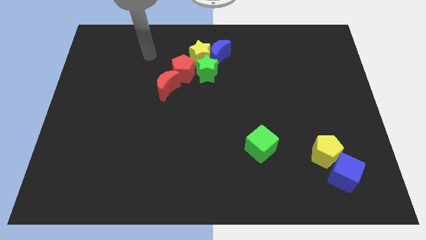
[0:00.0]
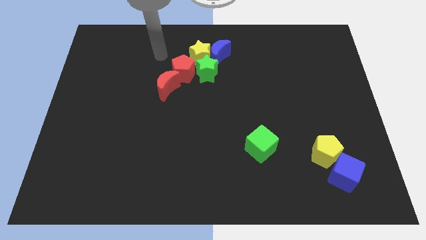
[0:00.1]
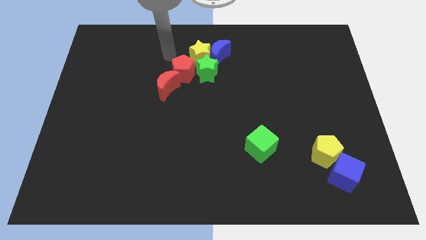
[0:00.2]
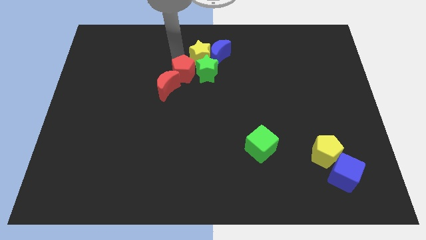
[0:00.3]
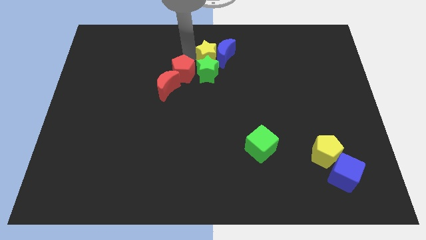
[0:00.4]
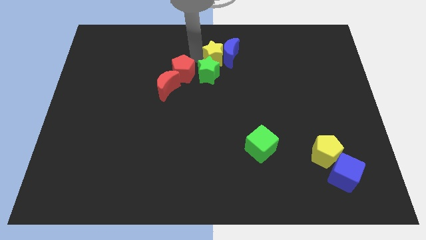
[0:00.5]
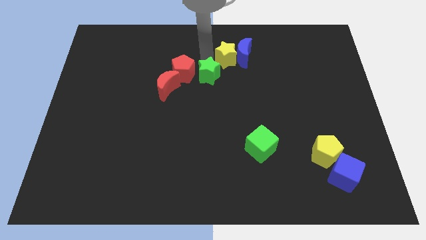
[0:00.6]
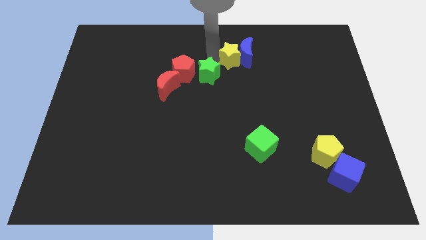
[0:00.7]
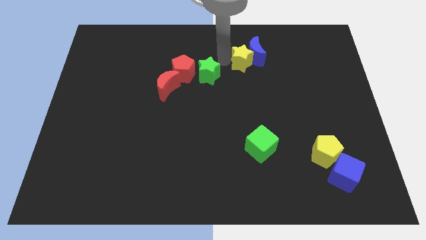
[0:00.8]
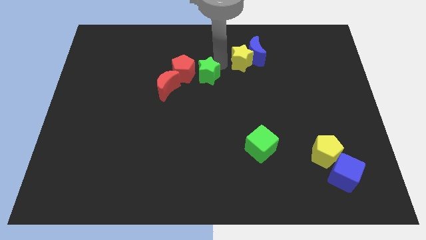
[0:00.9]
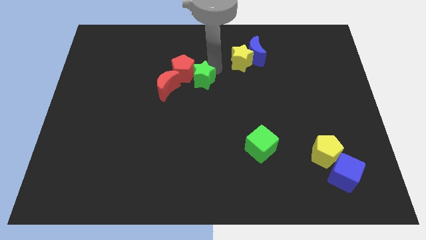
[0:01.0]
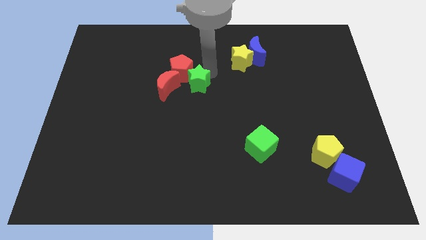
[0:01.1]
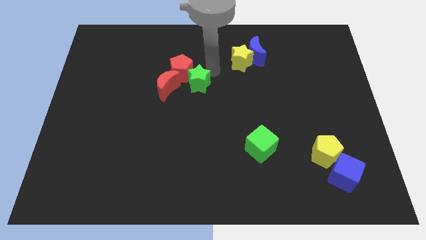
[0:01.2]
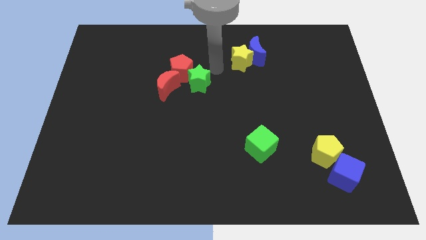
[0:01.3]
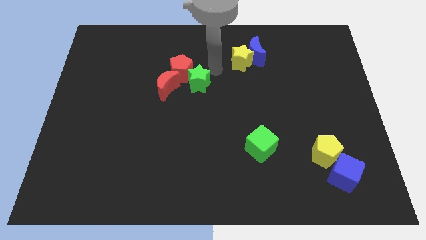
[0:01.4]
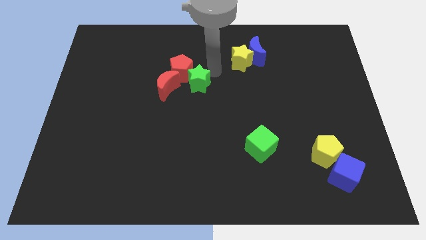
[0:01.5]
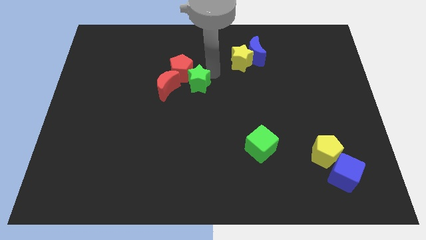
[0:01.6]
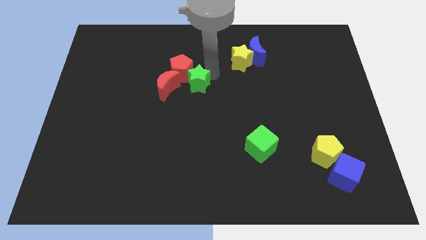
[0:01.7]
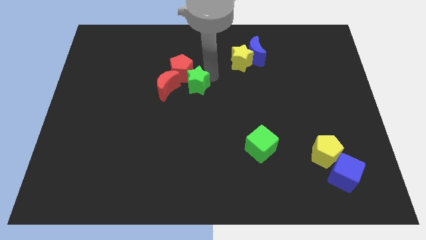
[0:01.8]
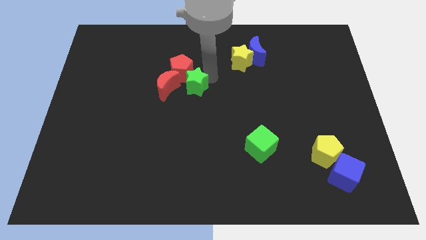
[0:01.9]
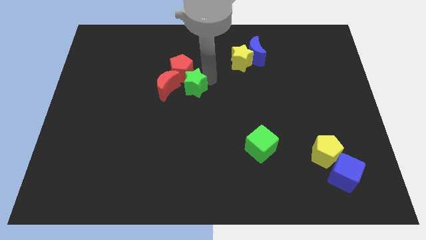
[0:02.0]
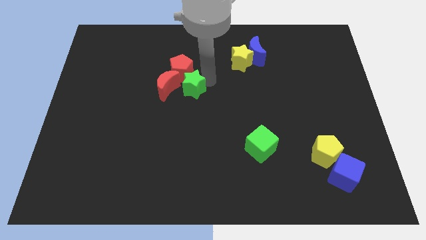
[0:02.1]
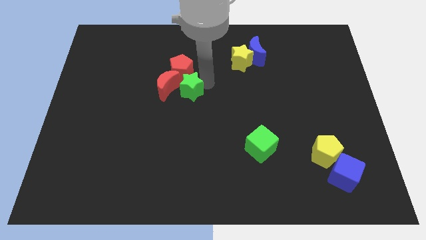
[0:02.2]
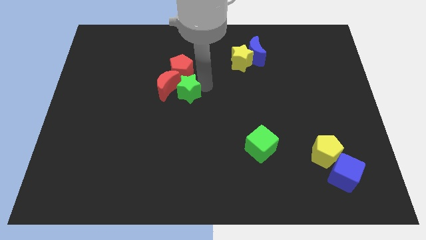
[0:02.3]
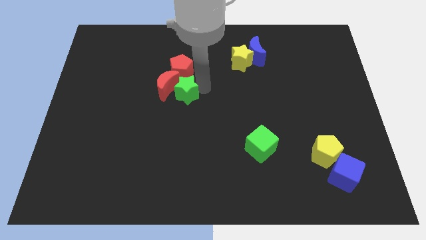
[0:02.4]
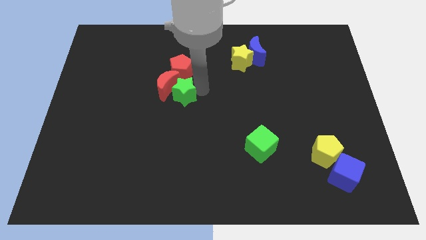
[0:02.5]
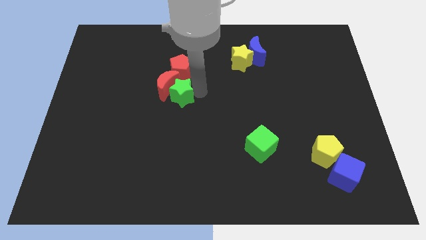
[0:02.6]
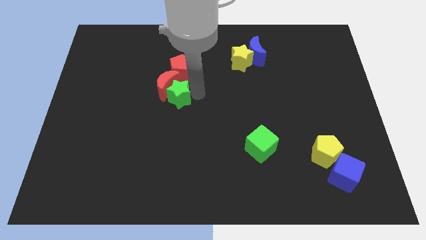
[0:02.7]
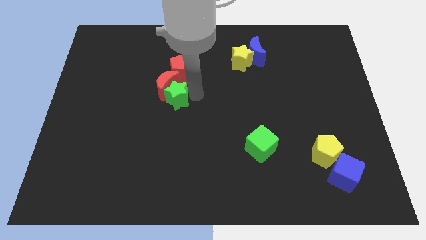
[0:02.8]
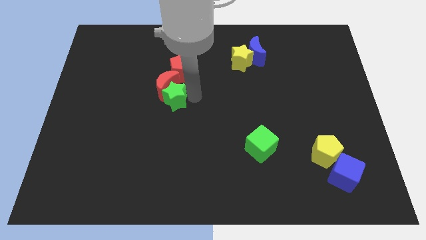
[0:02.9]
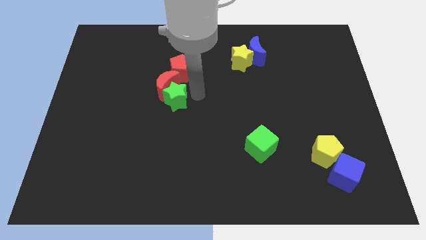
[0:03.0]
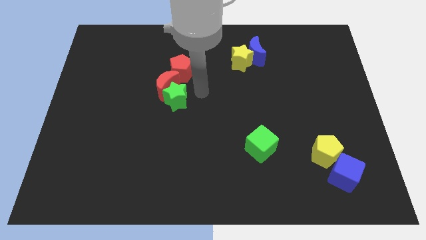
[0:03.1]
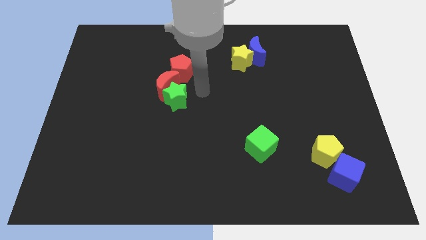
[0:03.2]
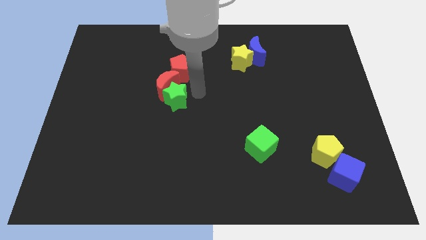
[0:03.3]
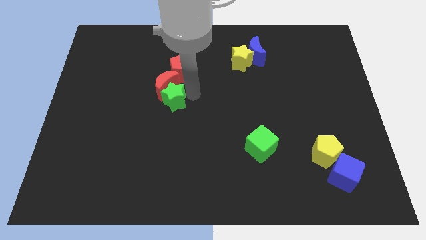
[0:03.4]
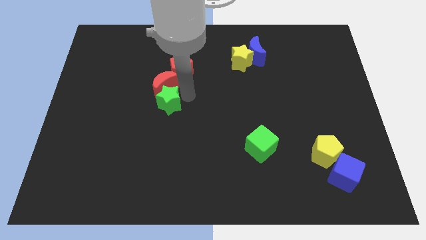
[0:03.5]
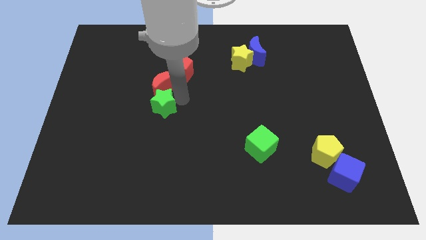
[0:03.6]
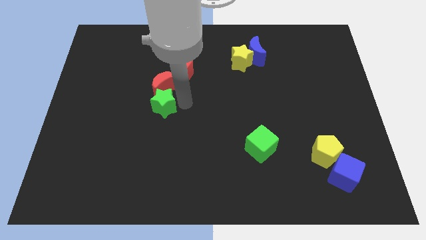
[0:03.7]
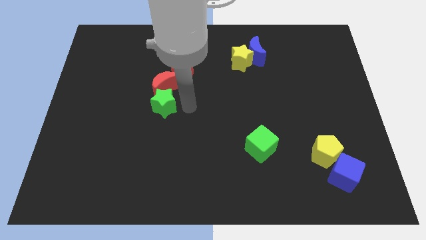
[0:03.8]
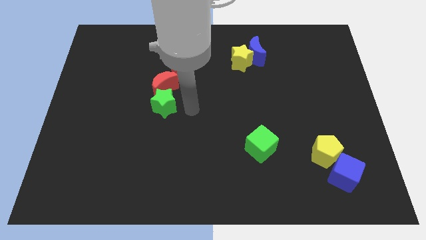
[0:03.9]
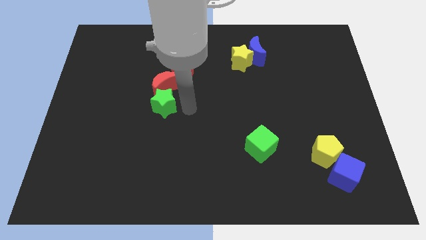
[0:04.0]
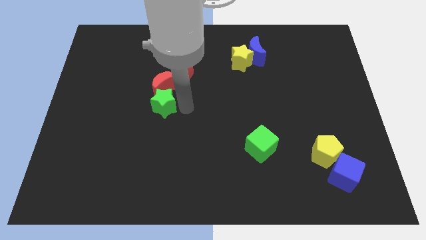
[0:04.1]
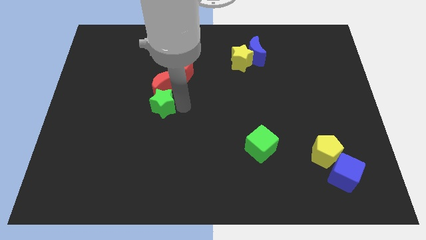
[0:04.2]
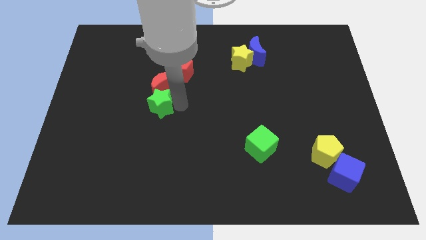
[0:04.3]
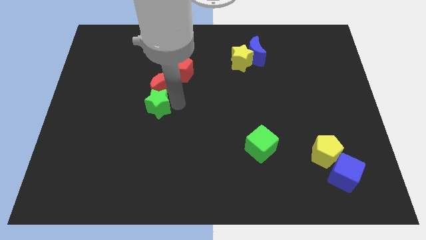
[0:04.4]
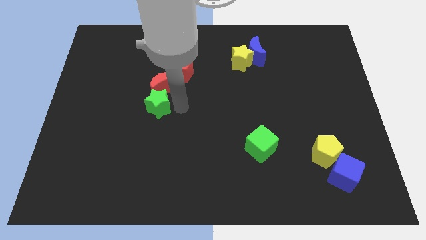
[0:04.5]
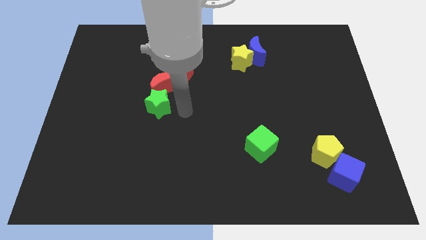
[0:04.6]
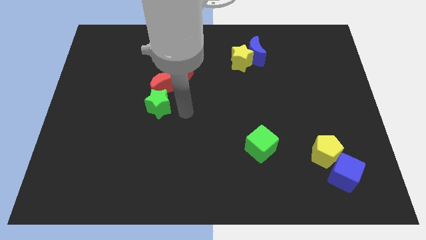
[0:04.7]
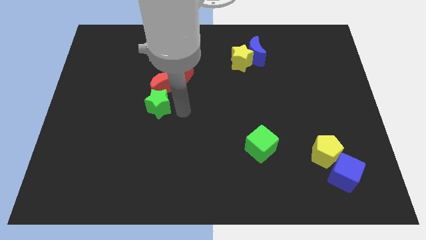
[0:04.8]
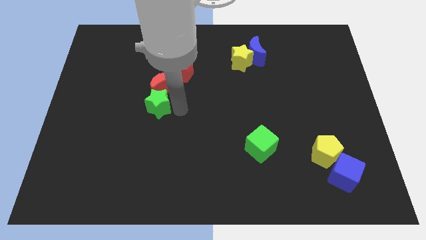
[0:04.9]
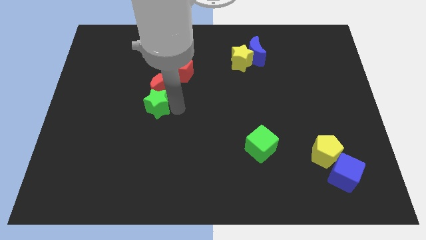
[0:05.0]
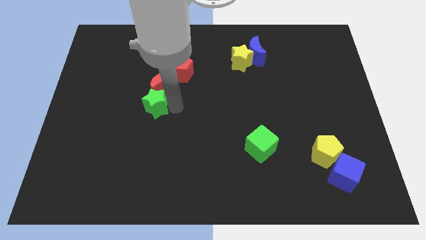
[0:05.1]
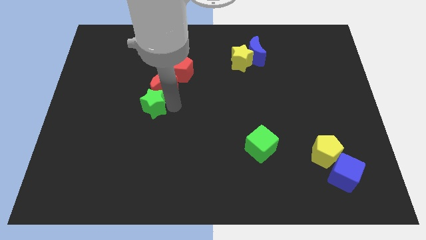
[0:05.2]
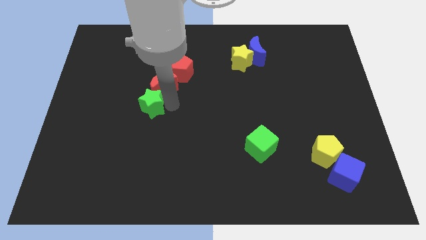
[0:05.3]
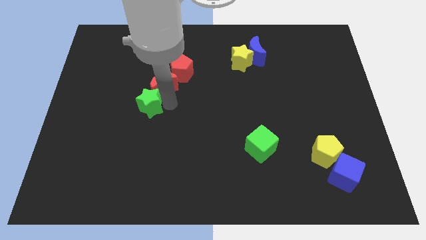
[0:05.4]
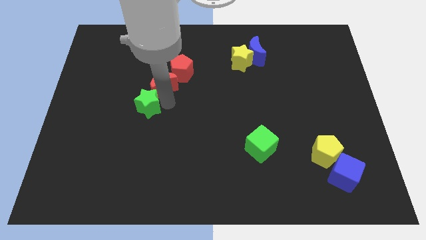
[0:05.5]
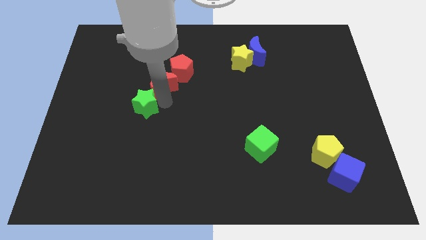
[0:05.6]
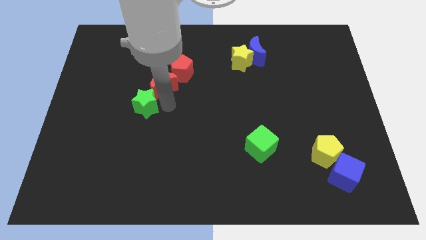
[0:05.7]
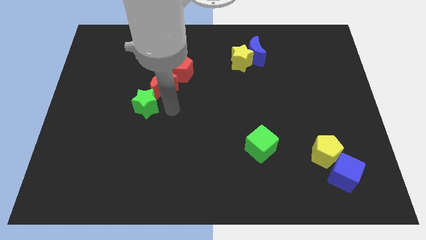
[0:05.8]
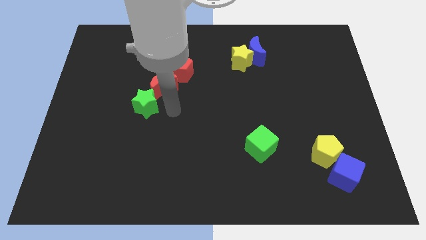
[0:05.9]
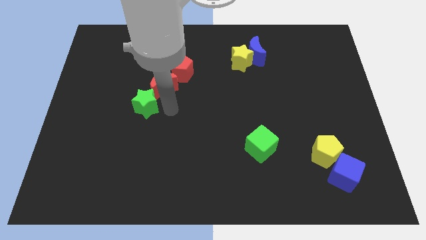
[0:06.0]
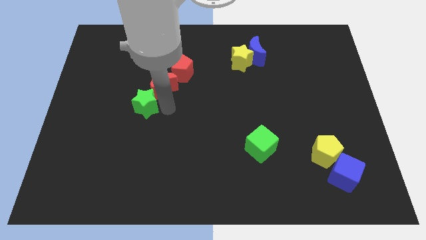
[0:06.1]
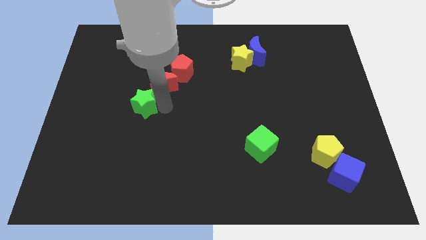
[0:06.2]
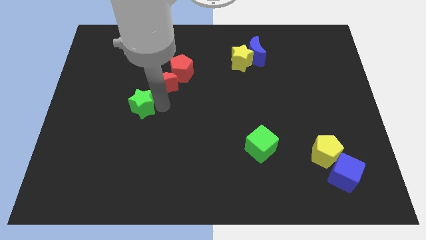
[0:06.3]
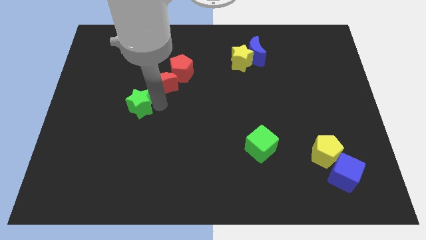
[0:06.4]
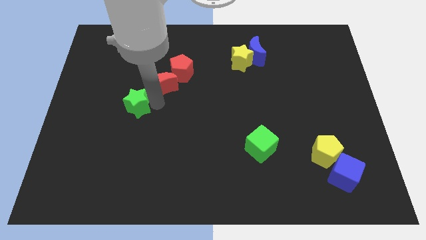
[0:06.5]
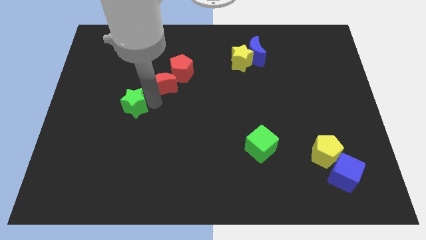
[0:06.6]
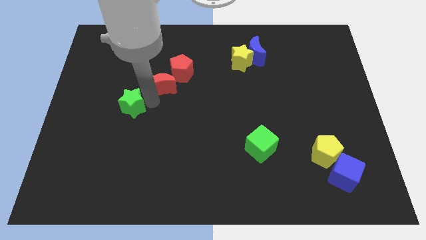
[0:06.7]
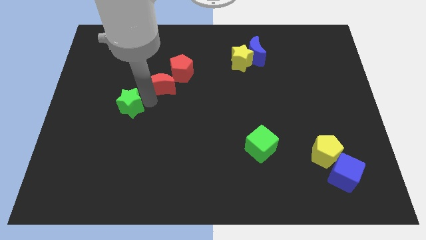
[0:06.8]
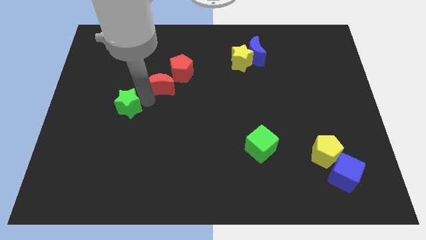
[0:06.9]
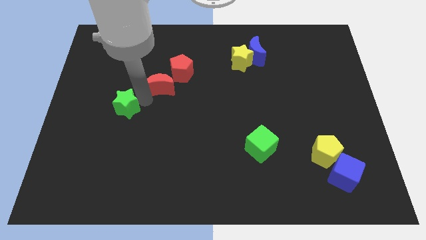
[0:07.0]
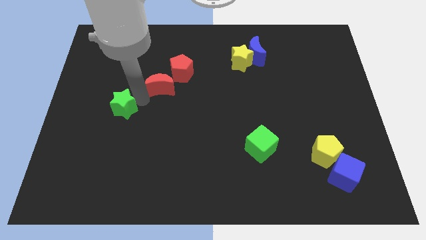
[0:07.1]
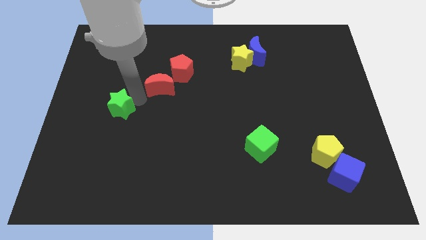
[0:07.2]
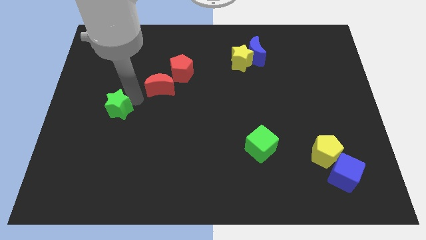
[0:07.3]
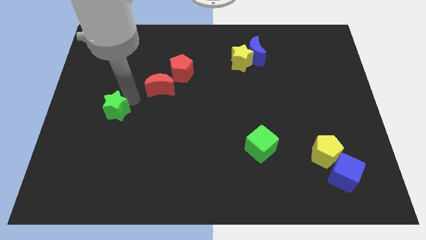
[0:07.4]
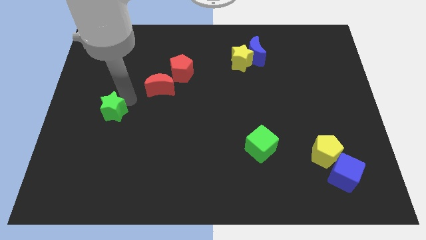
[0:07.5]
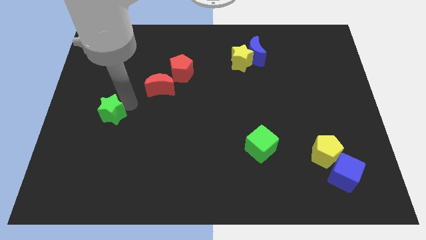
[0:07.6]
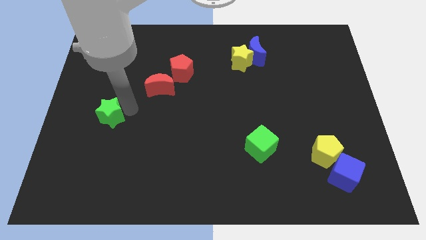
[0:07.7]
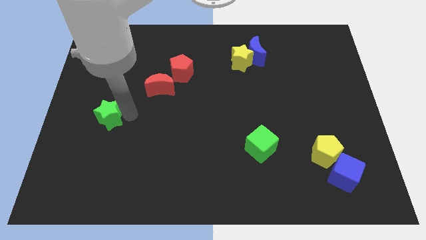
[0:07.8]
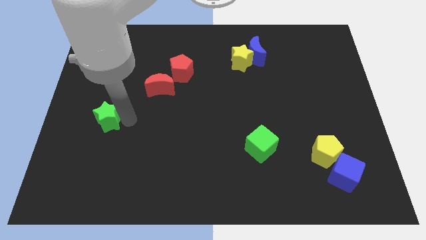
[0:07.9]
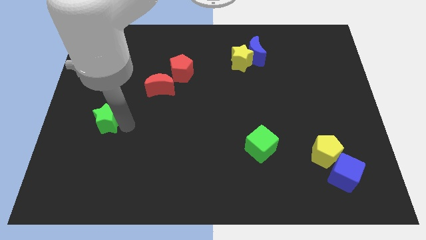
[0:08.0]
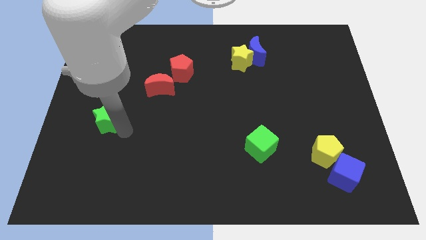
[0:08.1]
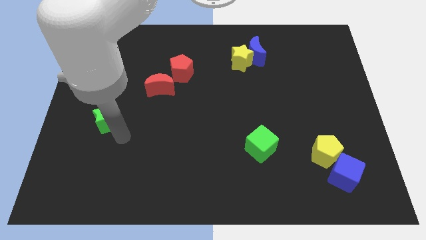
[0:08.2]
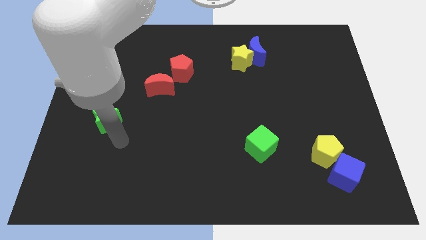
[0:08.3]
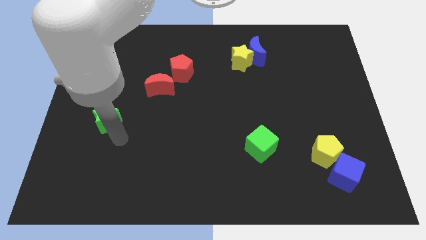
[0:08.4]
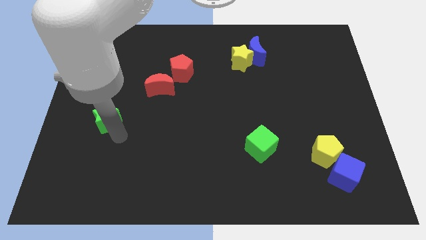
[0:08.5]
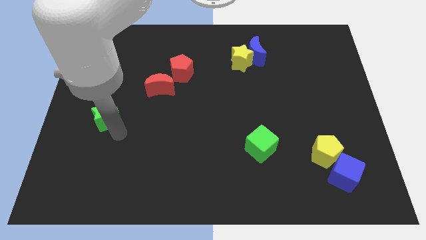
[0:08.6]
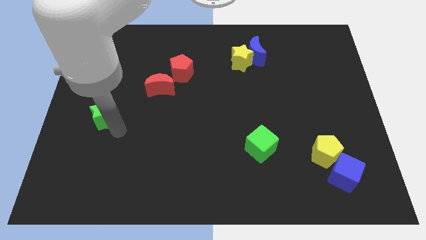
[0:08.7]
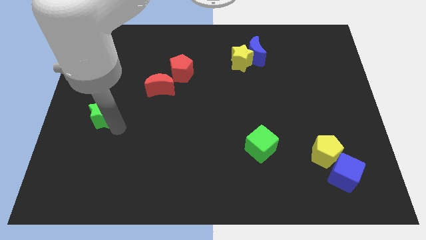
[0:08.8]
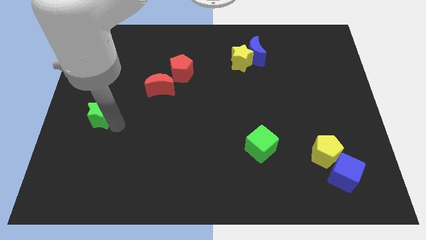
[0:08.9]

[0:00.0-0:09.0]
push the green star to the center left
